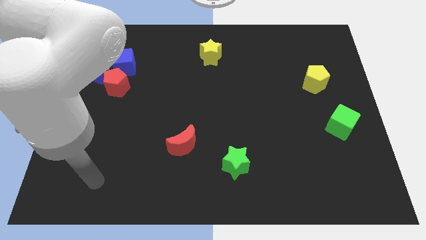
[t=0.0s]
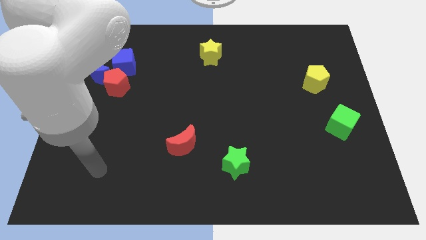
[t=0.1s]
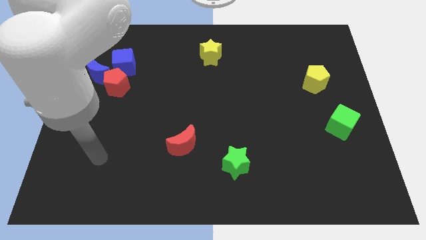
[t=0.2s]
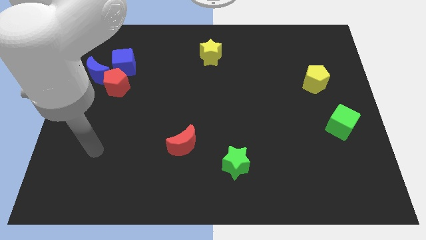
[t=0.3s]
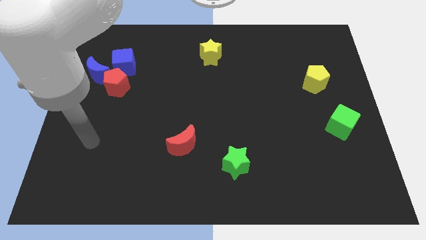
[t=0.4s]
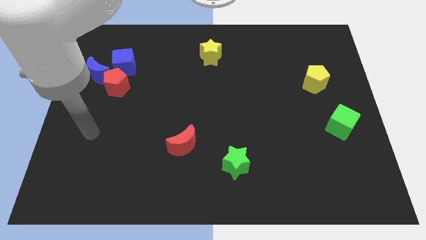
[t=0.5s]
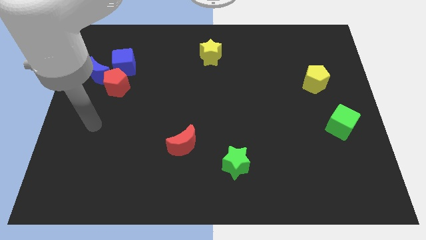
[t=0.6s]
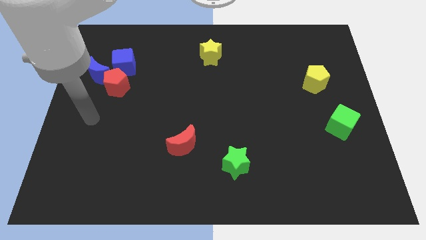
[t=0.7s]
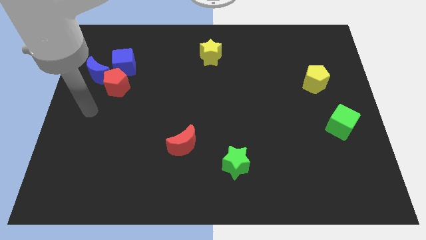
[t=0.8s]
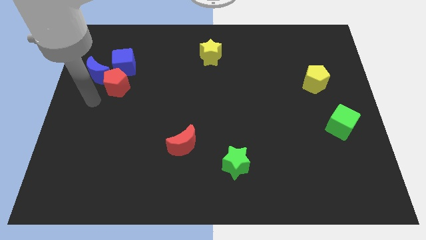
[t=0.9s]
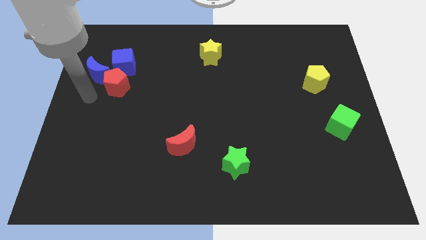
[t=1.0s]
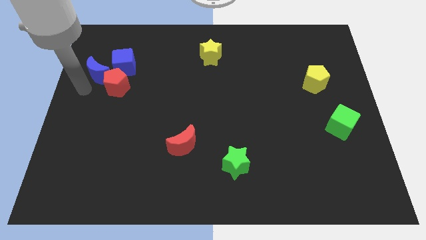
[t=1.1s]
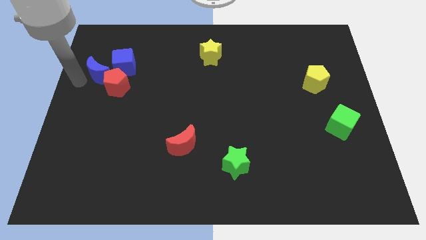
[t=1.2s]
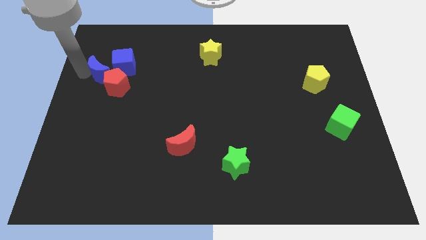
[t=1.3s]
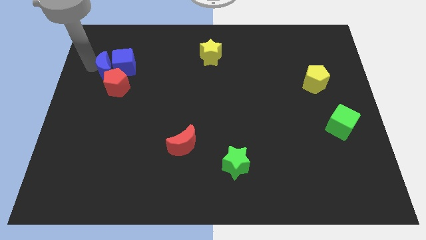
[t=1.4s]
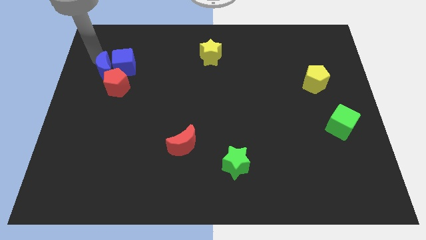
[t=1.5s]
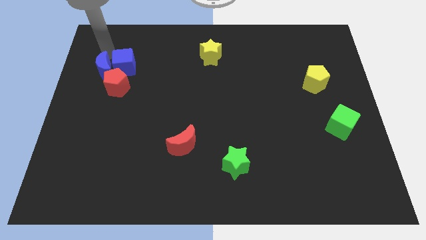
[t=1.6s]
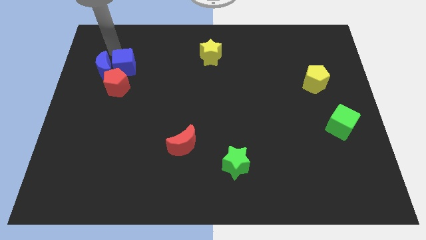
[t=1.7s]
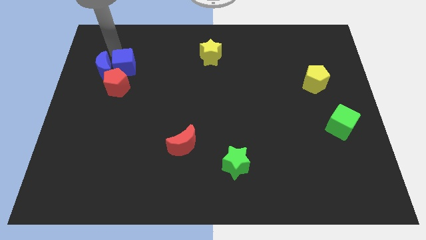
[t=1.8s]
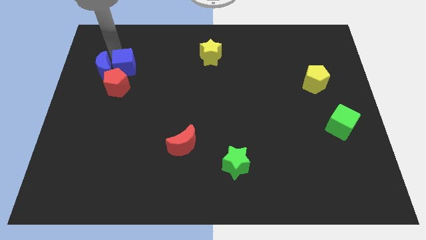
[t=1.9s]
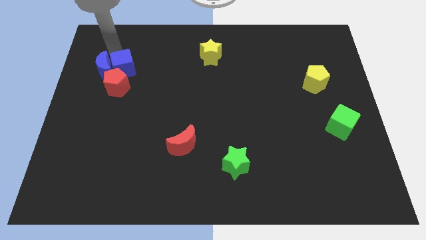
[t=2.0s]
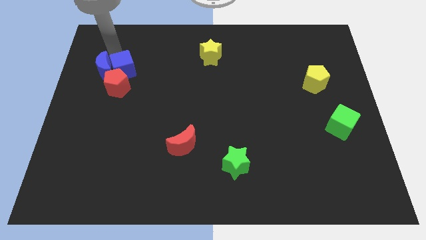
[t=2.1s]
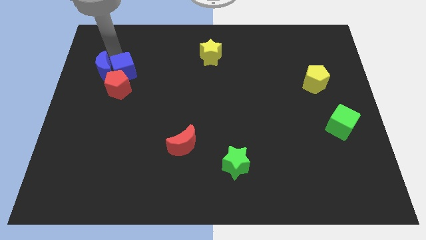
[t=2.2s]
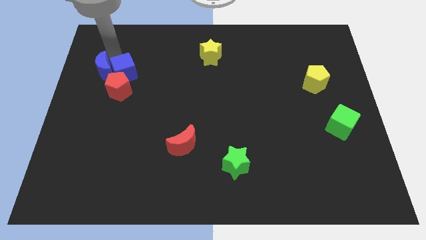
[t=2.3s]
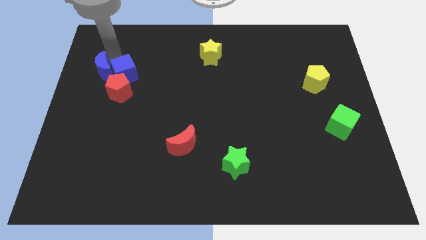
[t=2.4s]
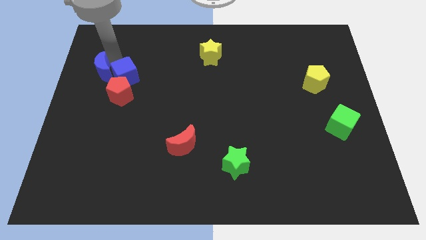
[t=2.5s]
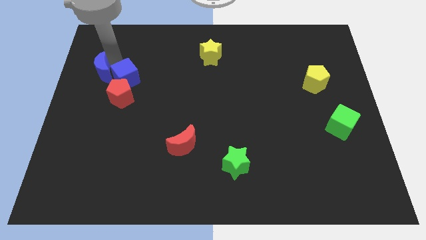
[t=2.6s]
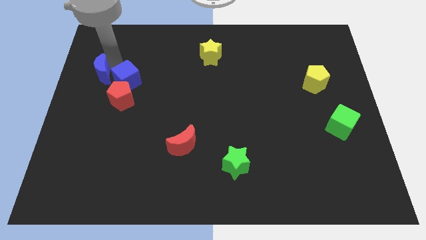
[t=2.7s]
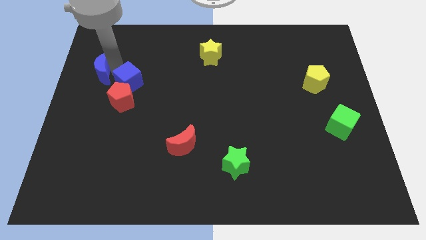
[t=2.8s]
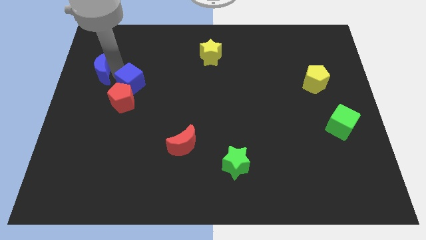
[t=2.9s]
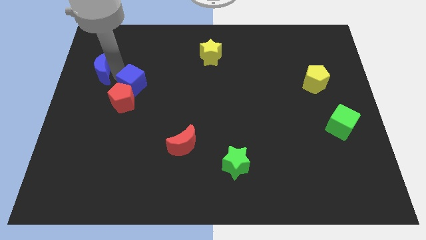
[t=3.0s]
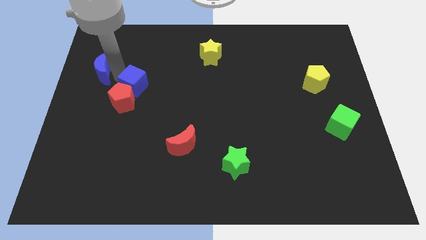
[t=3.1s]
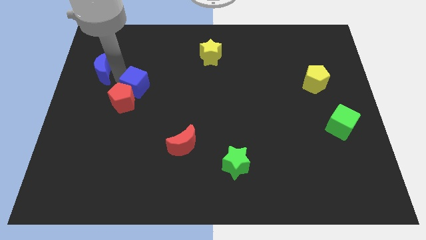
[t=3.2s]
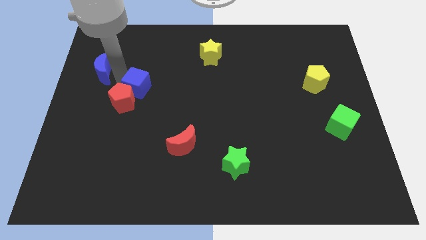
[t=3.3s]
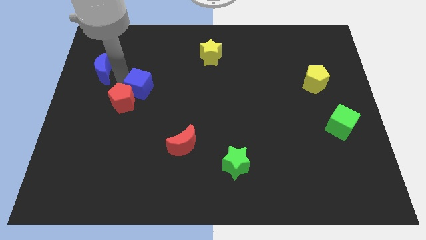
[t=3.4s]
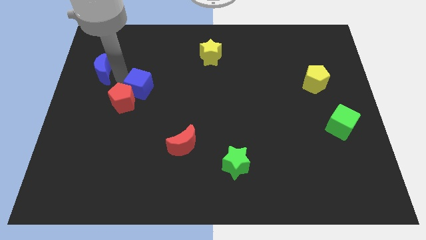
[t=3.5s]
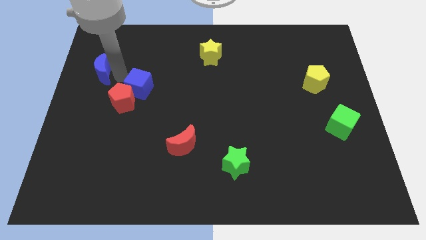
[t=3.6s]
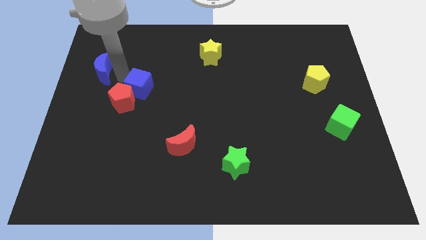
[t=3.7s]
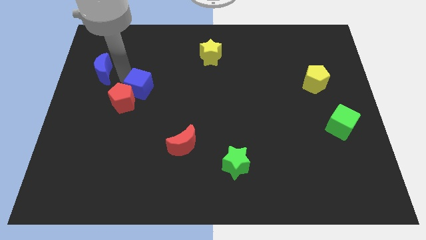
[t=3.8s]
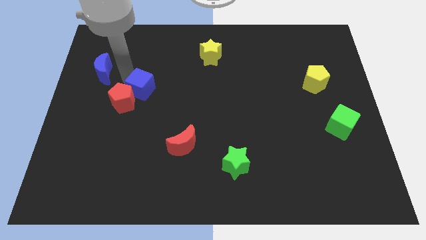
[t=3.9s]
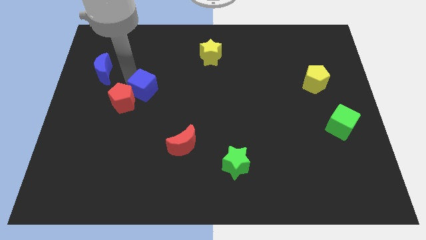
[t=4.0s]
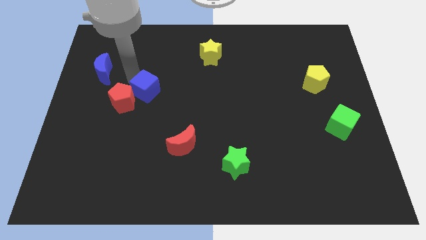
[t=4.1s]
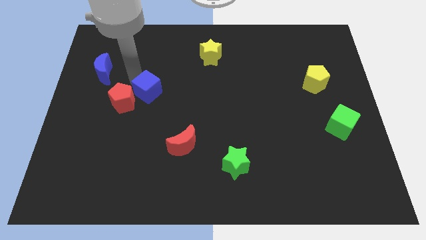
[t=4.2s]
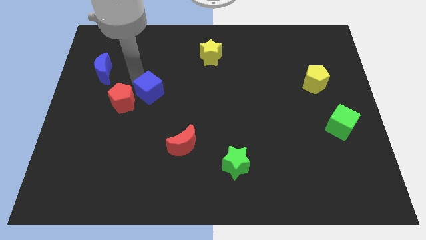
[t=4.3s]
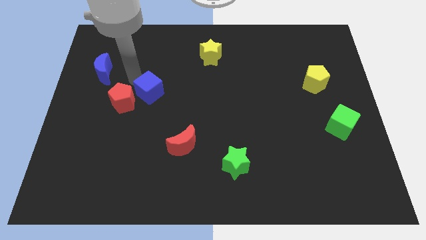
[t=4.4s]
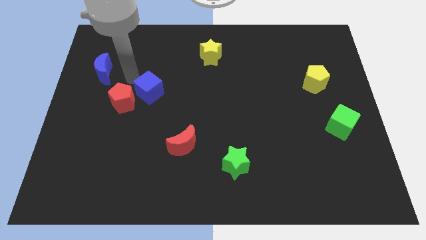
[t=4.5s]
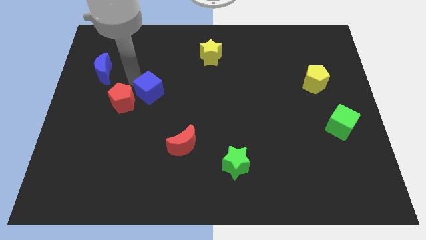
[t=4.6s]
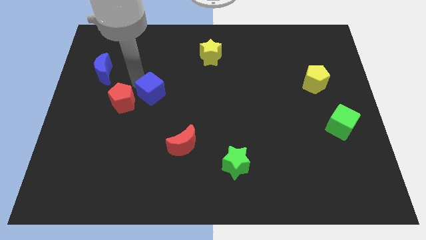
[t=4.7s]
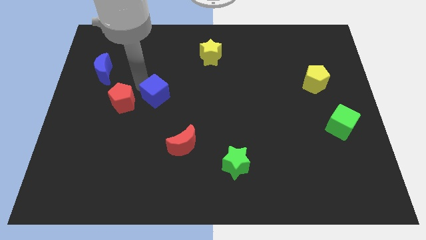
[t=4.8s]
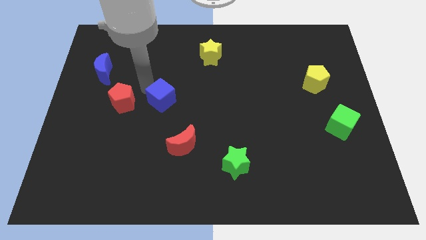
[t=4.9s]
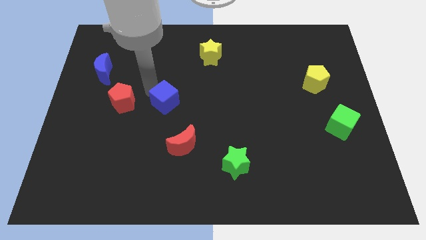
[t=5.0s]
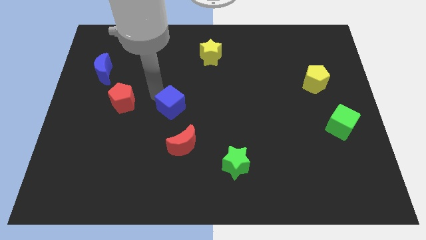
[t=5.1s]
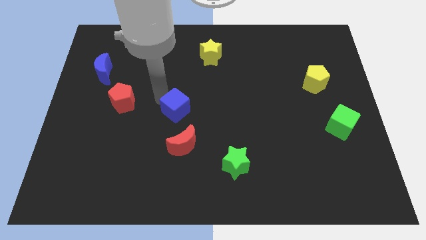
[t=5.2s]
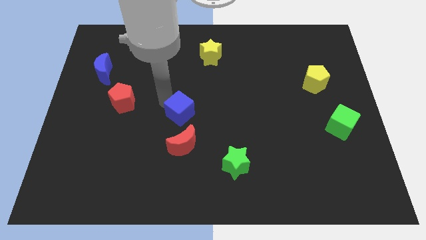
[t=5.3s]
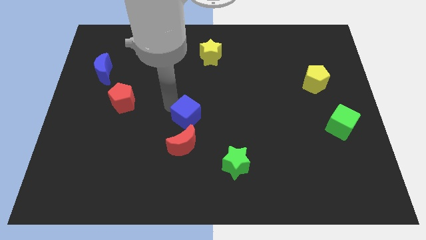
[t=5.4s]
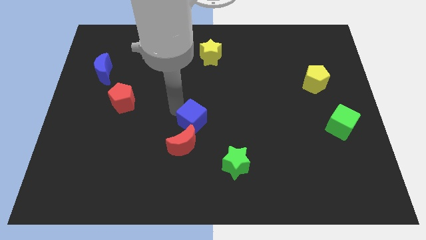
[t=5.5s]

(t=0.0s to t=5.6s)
put the blue cube diagonally up and to the right of the red moon
